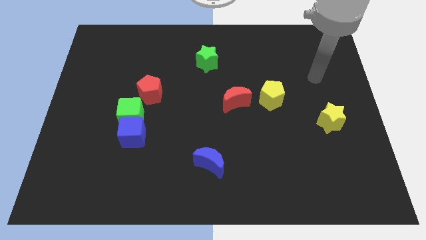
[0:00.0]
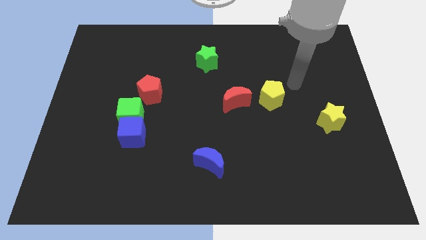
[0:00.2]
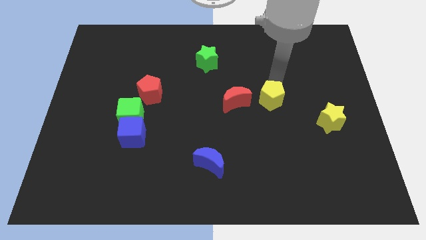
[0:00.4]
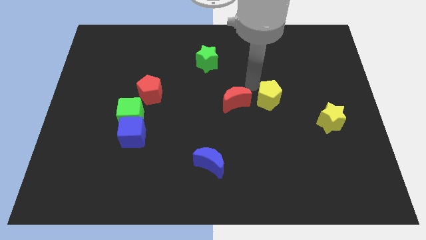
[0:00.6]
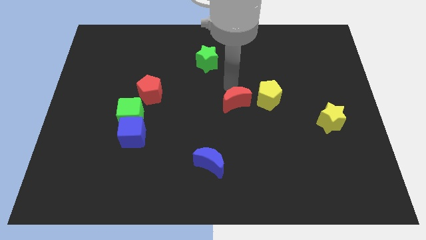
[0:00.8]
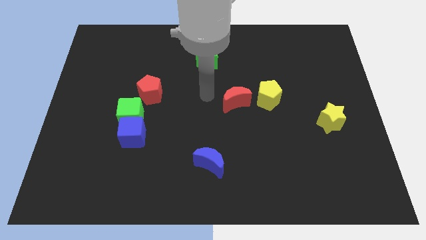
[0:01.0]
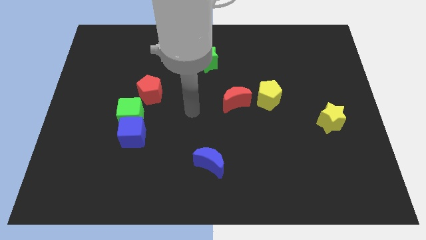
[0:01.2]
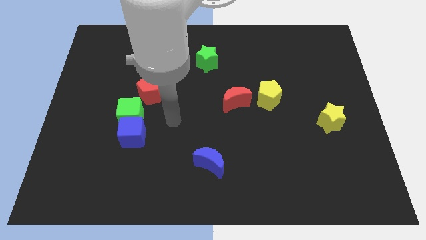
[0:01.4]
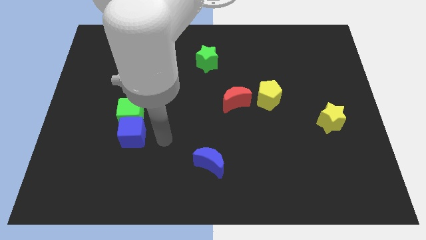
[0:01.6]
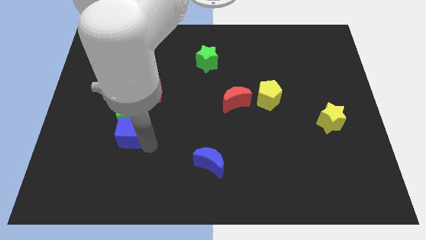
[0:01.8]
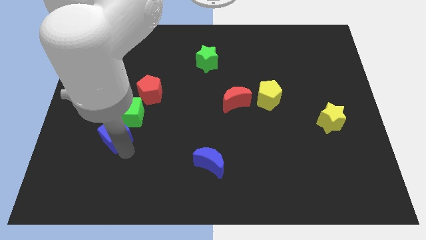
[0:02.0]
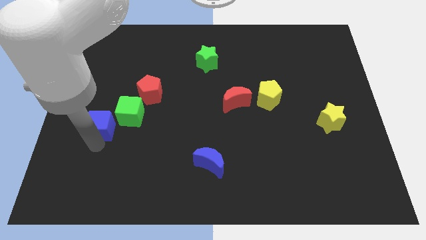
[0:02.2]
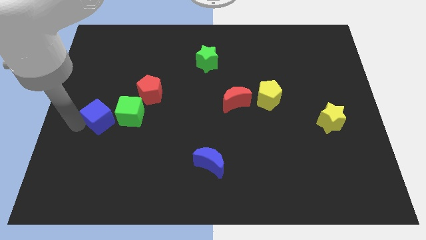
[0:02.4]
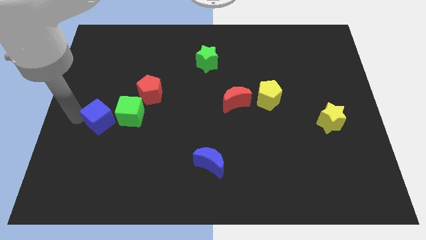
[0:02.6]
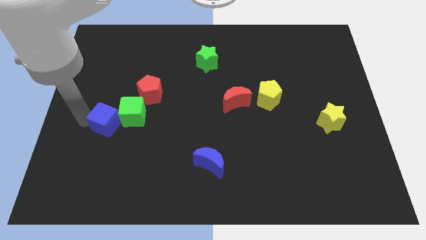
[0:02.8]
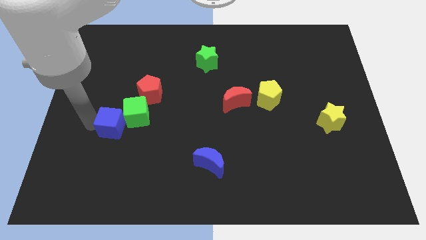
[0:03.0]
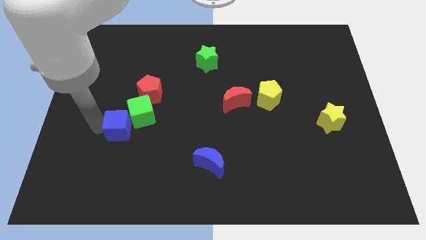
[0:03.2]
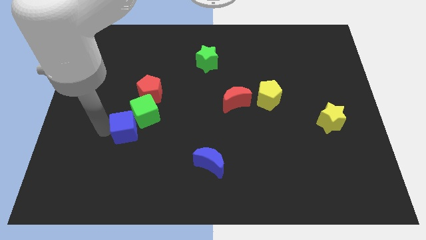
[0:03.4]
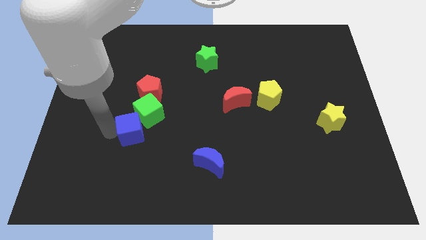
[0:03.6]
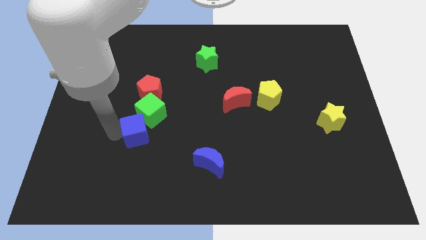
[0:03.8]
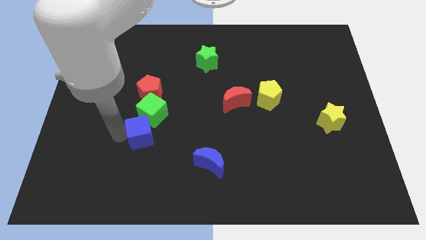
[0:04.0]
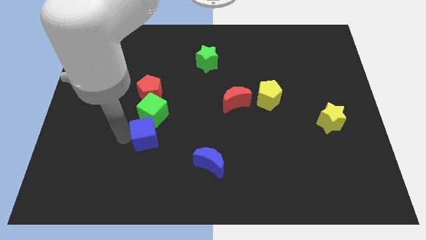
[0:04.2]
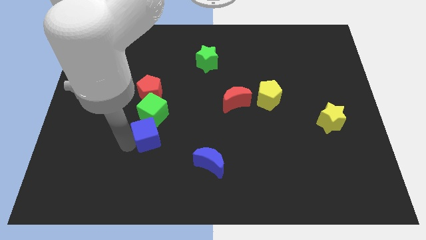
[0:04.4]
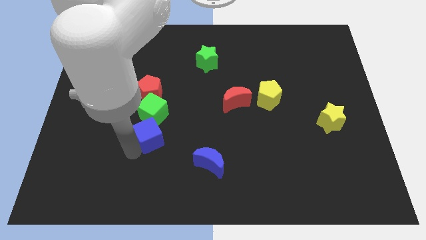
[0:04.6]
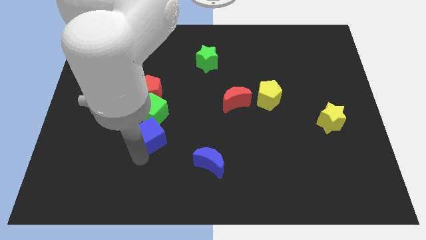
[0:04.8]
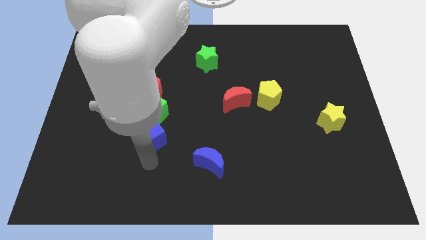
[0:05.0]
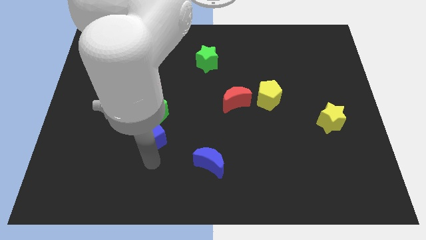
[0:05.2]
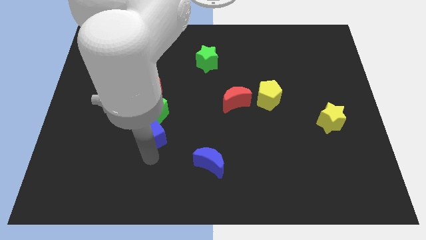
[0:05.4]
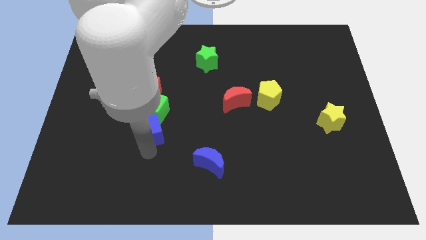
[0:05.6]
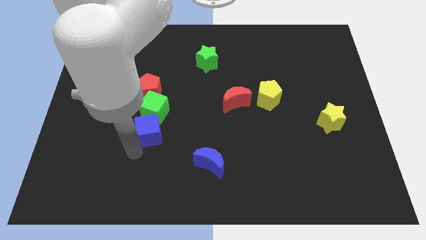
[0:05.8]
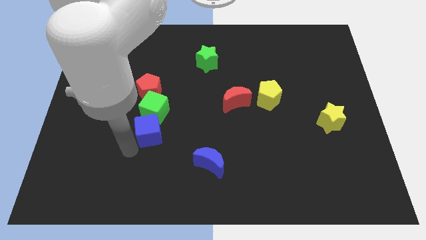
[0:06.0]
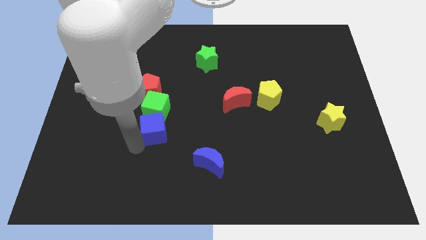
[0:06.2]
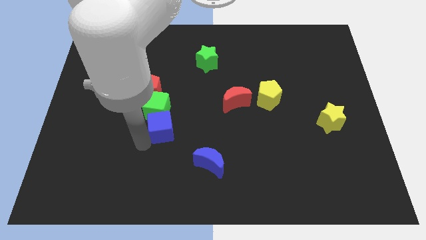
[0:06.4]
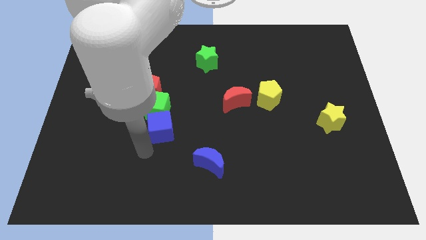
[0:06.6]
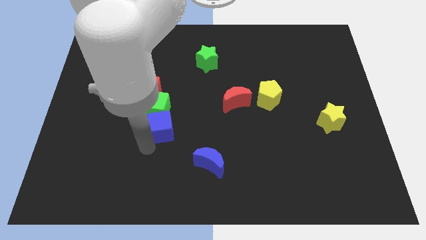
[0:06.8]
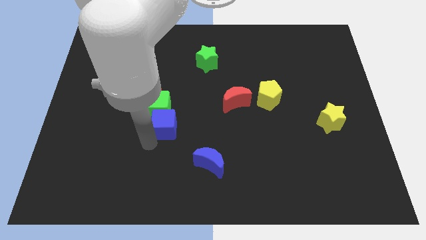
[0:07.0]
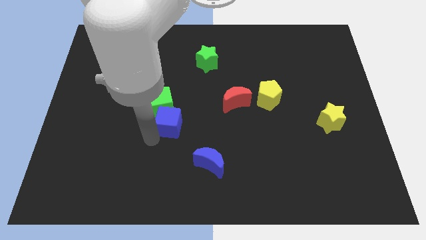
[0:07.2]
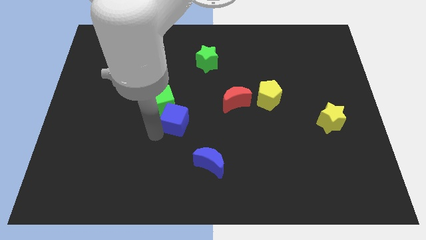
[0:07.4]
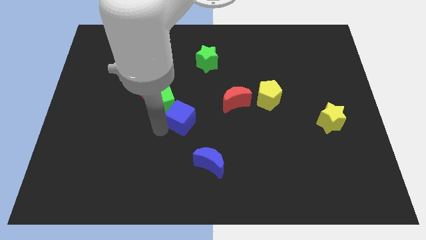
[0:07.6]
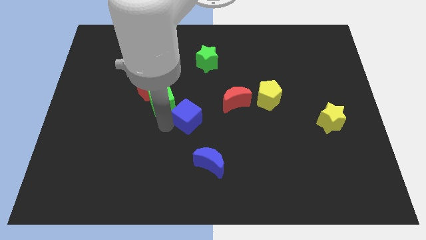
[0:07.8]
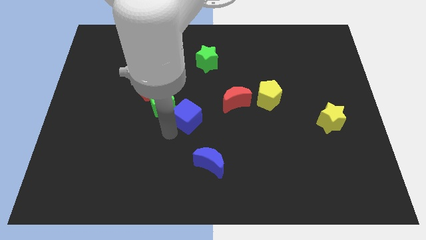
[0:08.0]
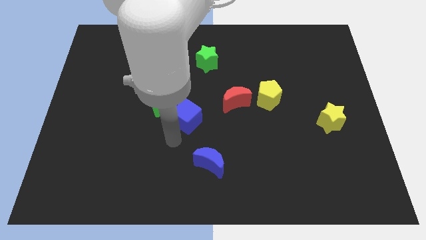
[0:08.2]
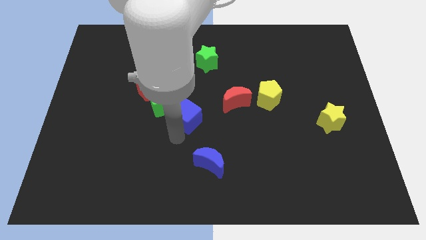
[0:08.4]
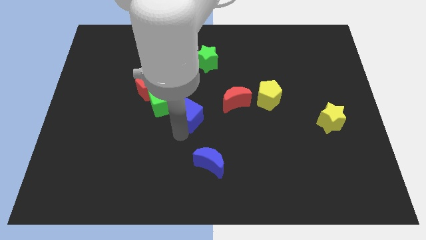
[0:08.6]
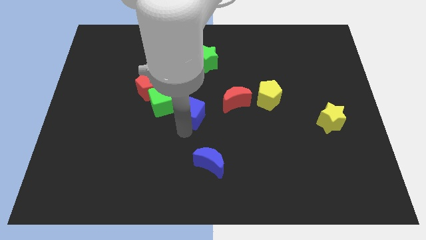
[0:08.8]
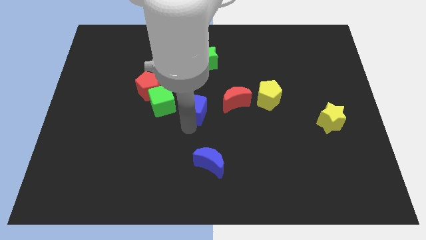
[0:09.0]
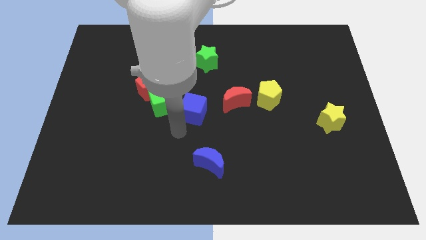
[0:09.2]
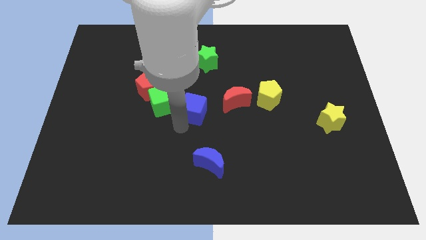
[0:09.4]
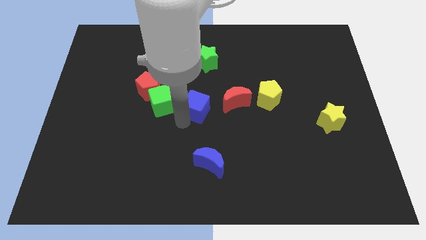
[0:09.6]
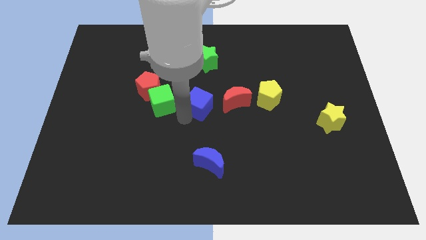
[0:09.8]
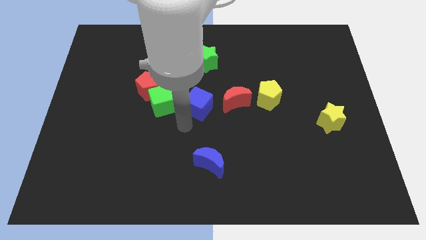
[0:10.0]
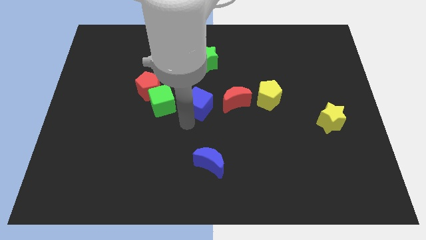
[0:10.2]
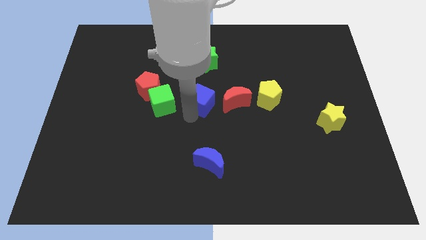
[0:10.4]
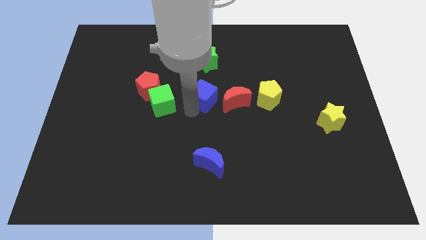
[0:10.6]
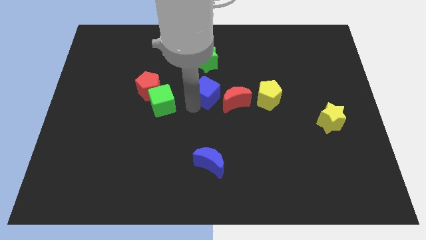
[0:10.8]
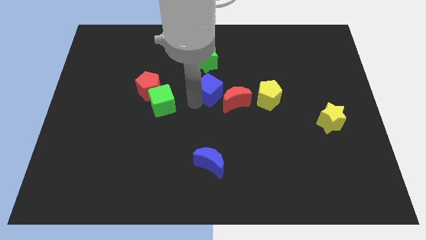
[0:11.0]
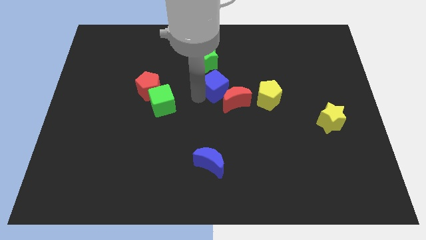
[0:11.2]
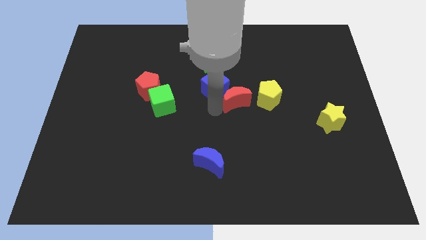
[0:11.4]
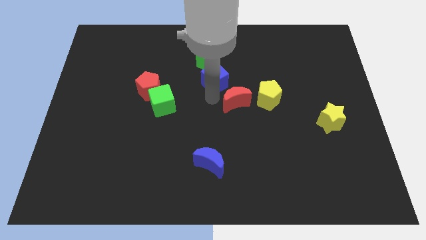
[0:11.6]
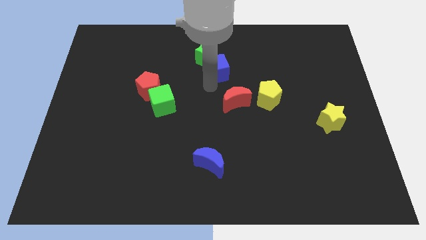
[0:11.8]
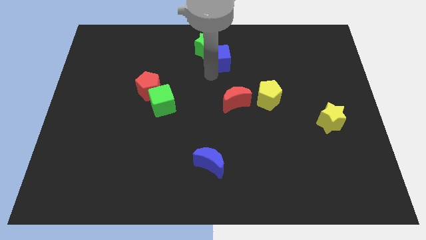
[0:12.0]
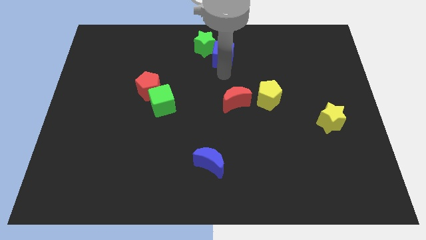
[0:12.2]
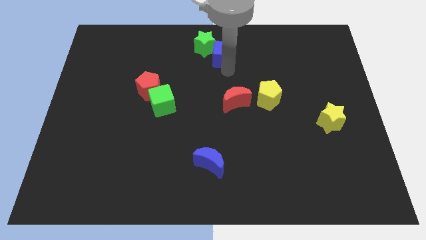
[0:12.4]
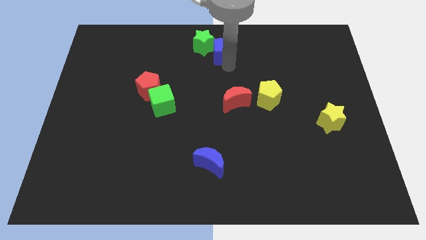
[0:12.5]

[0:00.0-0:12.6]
put the blue cube to the top side

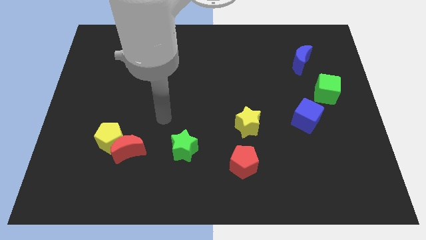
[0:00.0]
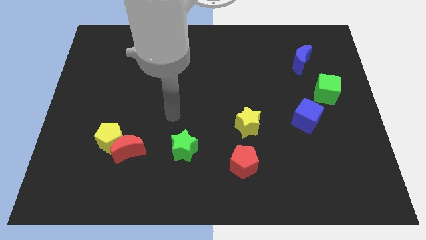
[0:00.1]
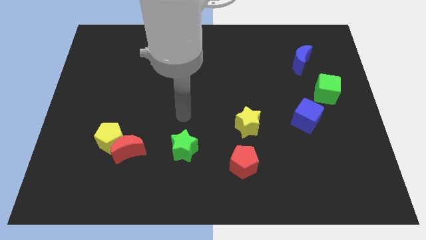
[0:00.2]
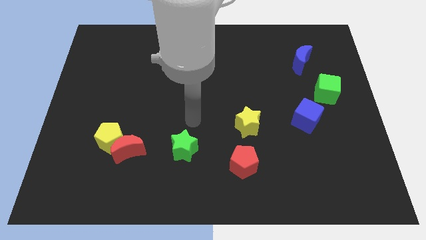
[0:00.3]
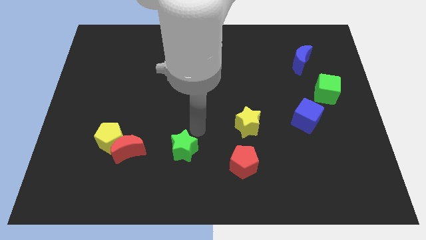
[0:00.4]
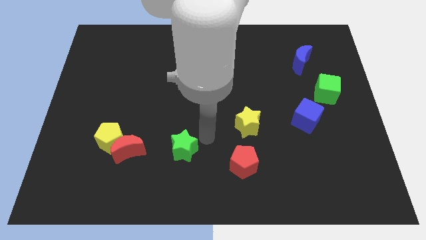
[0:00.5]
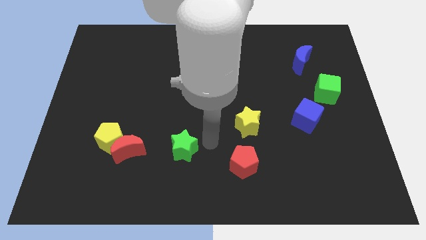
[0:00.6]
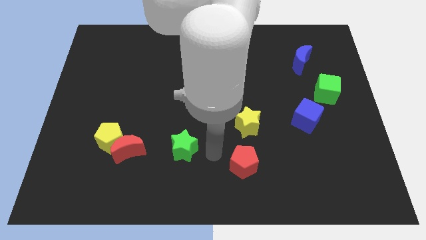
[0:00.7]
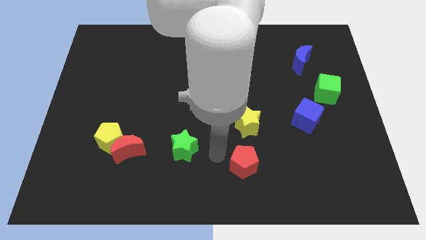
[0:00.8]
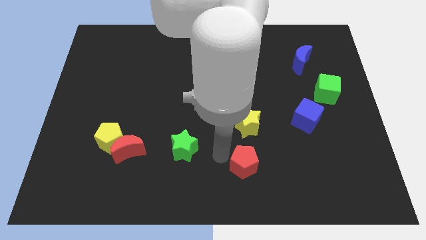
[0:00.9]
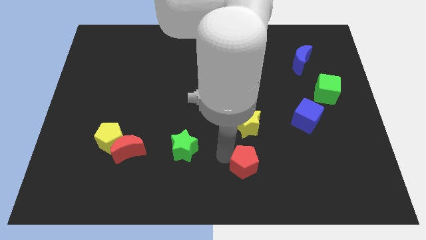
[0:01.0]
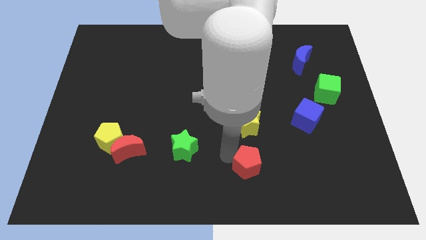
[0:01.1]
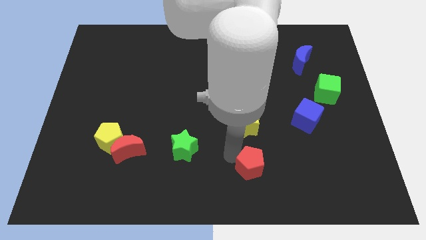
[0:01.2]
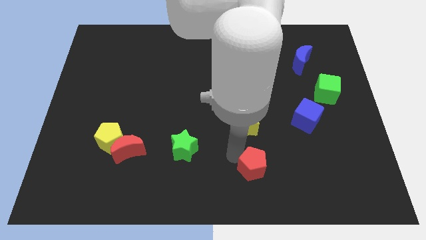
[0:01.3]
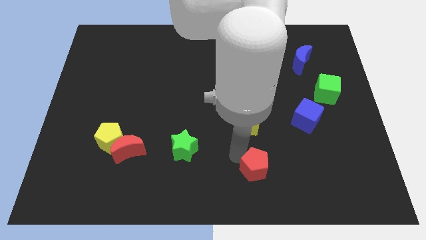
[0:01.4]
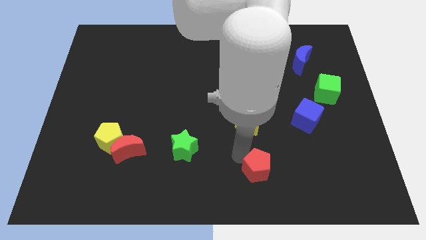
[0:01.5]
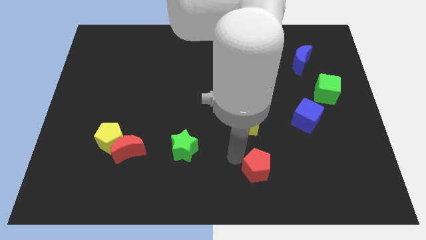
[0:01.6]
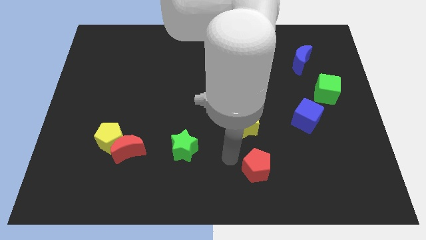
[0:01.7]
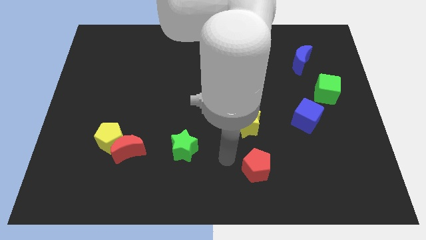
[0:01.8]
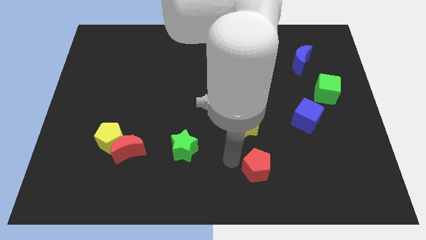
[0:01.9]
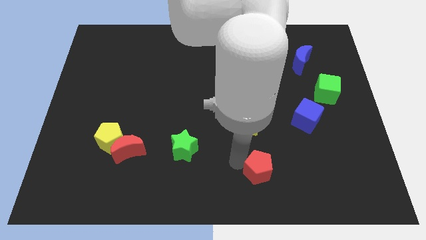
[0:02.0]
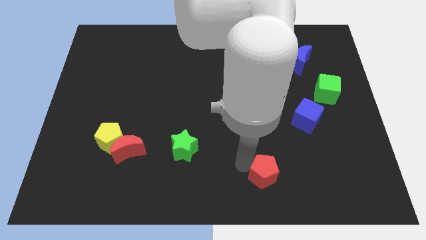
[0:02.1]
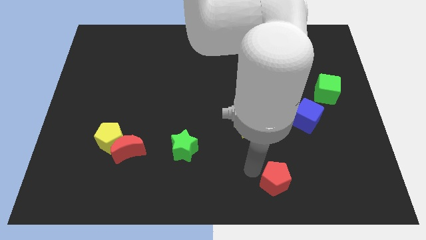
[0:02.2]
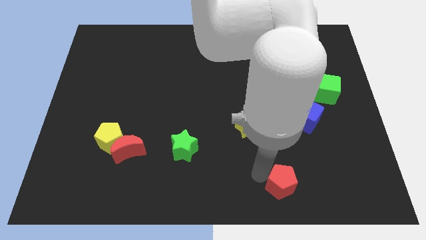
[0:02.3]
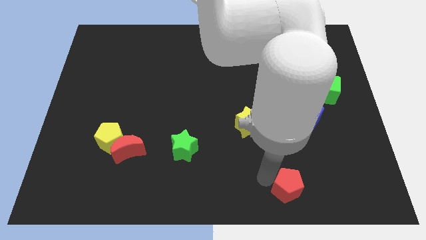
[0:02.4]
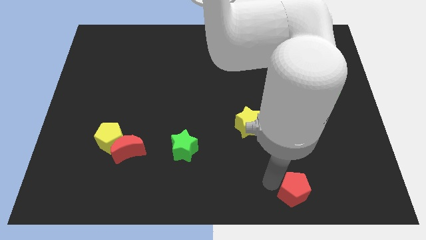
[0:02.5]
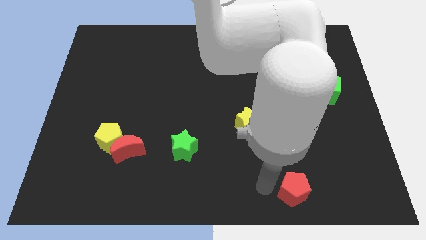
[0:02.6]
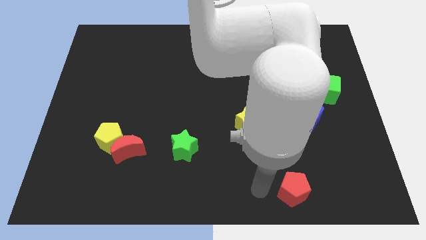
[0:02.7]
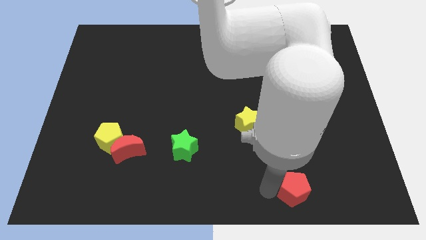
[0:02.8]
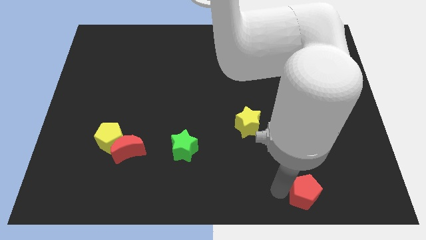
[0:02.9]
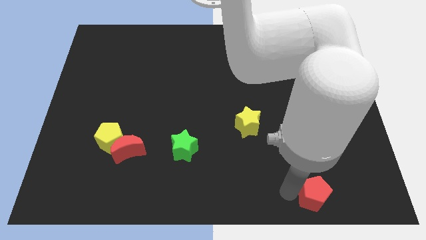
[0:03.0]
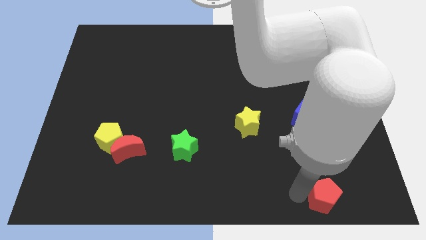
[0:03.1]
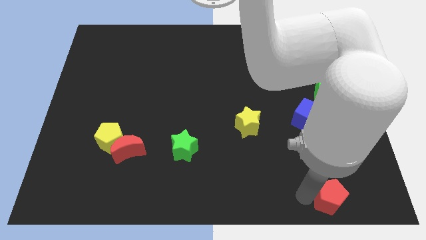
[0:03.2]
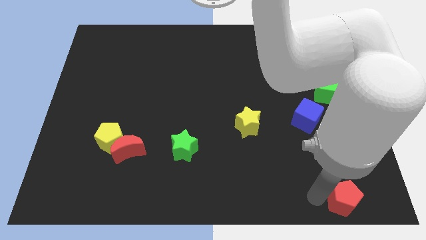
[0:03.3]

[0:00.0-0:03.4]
move the red pentagon to the bottom right of the board
